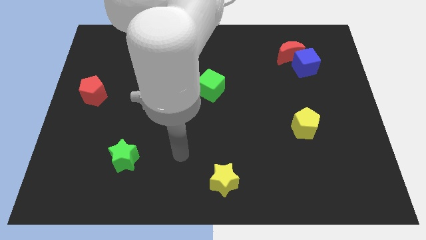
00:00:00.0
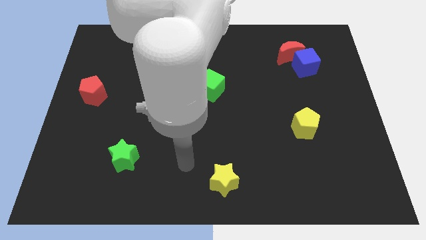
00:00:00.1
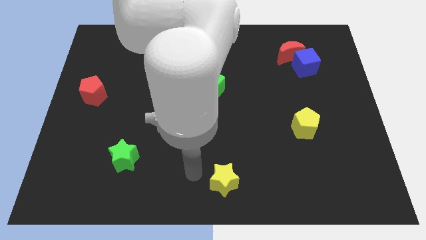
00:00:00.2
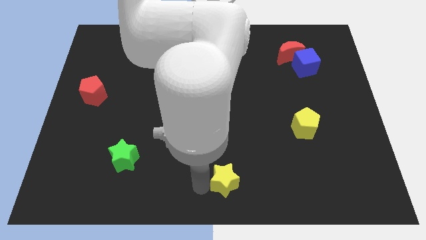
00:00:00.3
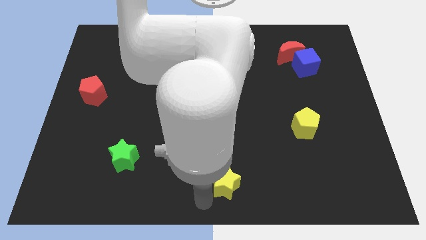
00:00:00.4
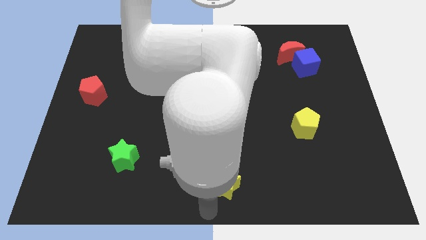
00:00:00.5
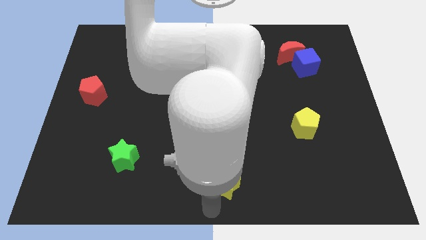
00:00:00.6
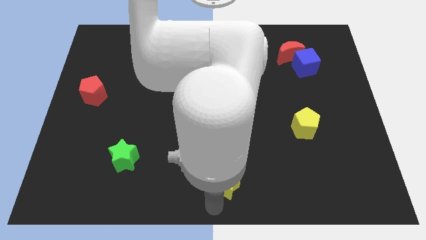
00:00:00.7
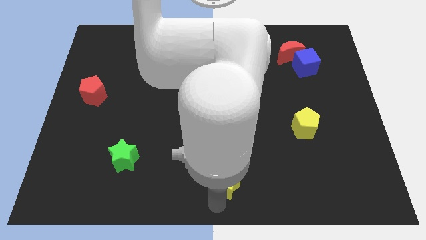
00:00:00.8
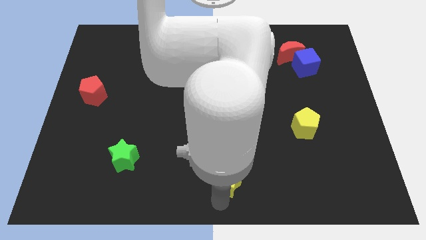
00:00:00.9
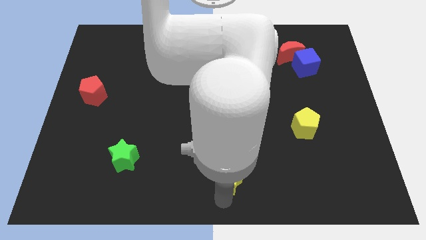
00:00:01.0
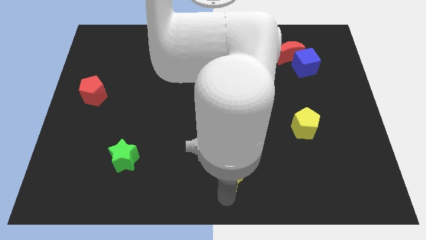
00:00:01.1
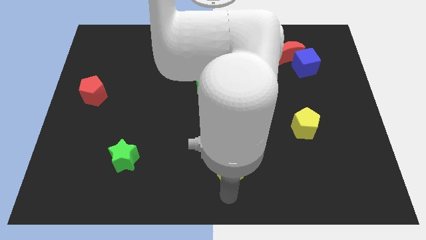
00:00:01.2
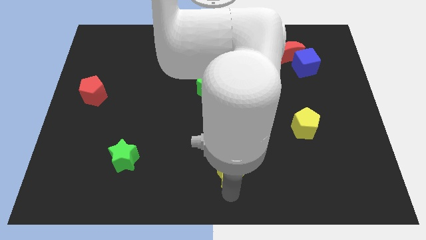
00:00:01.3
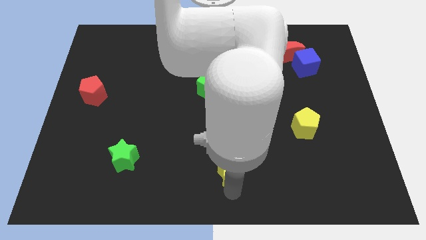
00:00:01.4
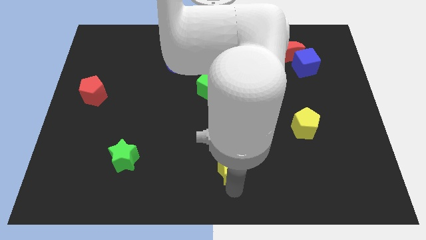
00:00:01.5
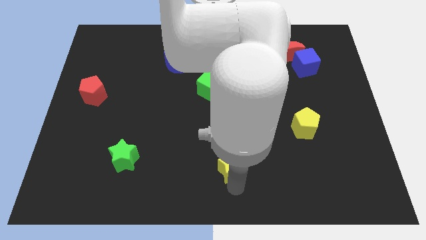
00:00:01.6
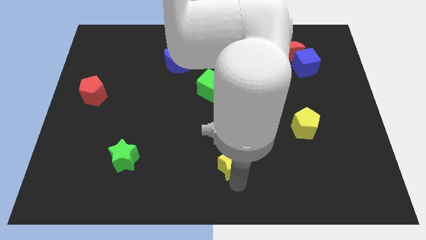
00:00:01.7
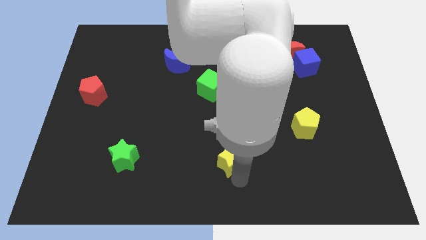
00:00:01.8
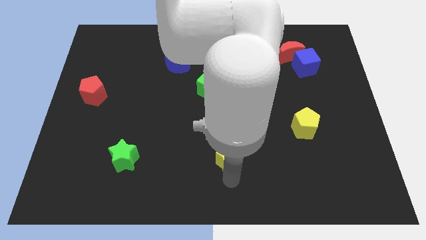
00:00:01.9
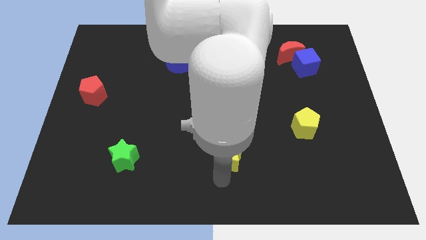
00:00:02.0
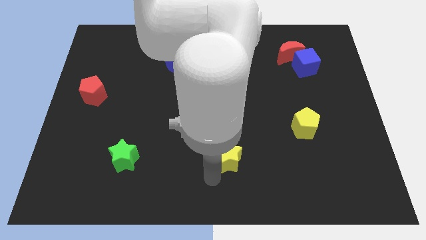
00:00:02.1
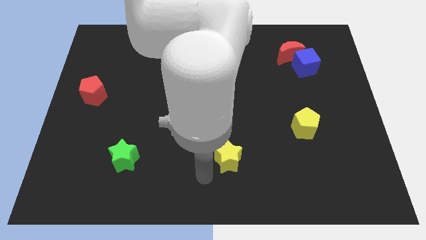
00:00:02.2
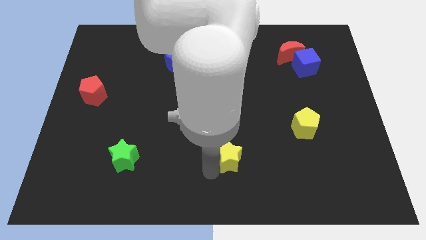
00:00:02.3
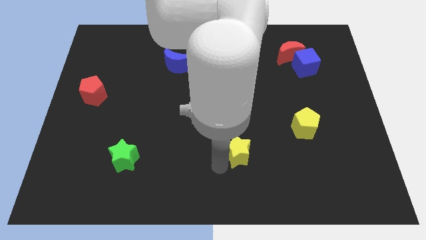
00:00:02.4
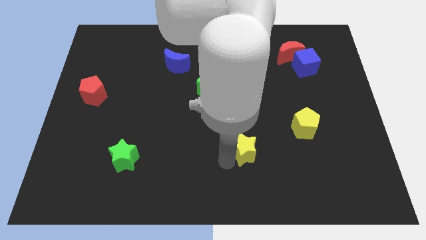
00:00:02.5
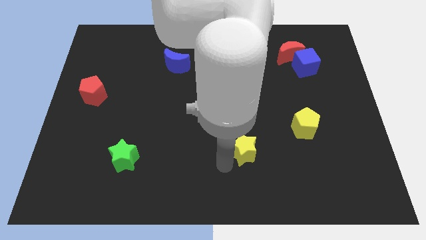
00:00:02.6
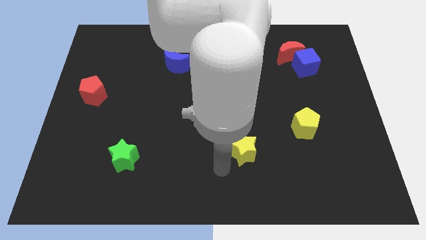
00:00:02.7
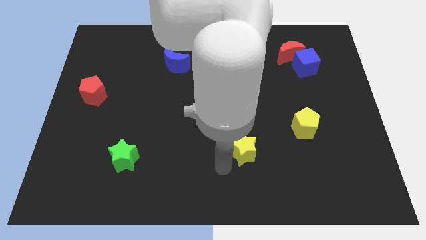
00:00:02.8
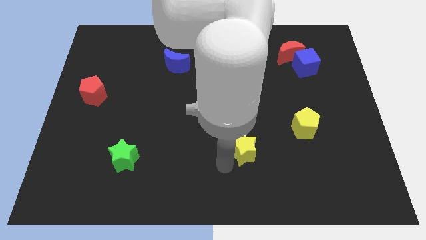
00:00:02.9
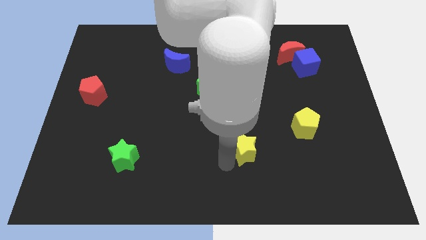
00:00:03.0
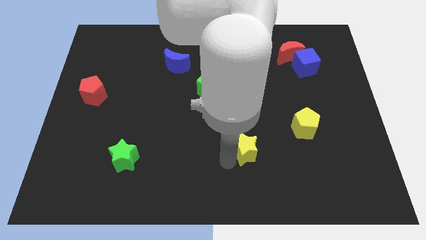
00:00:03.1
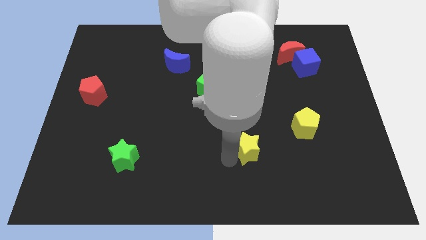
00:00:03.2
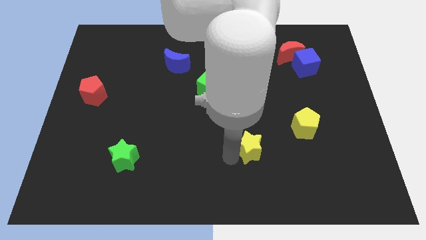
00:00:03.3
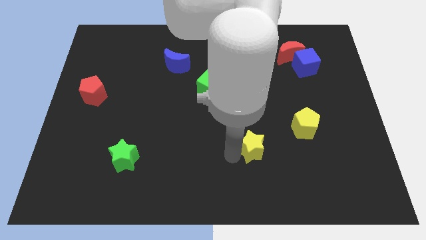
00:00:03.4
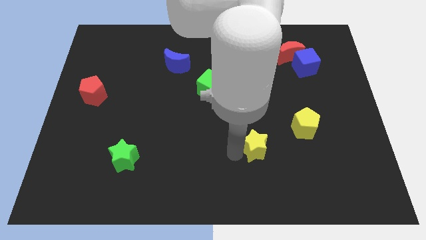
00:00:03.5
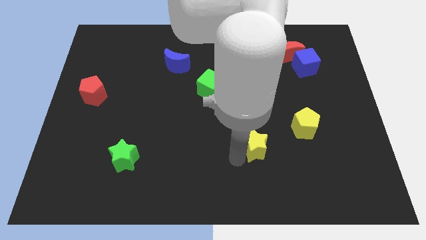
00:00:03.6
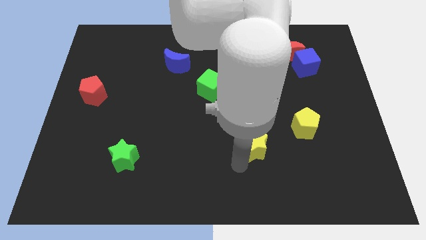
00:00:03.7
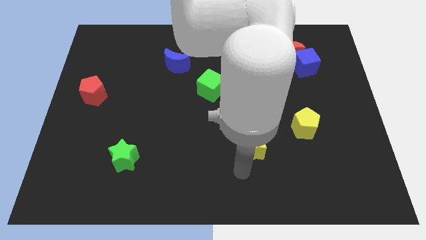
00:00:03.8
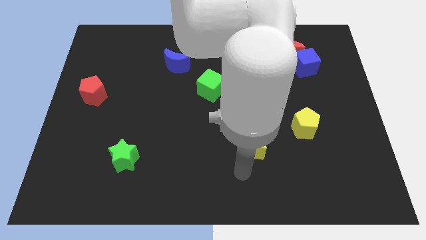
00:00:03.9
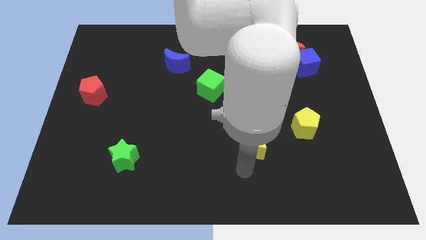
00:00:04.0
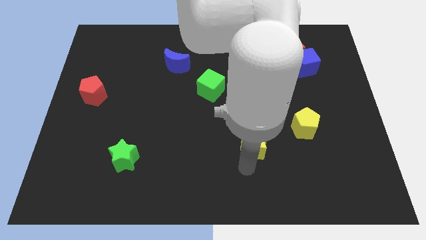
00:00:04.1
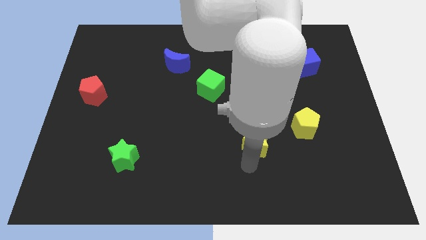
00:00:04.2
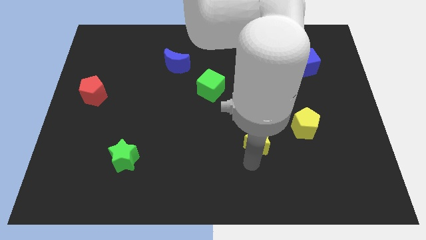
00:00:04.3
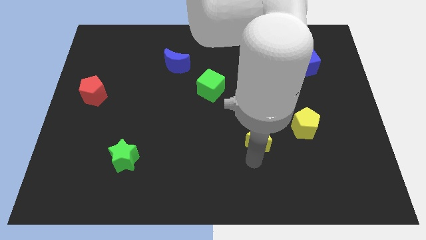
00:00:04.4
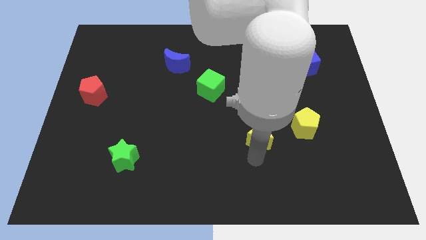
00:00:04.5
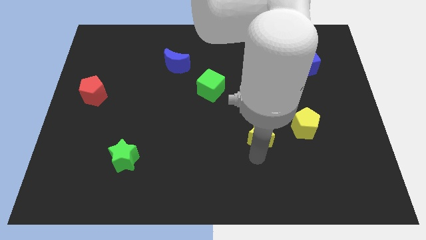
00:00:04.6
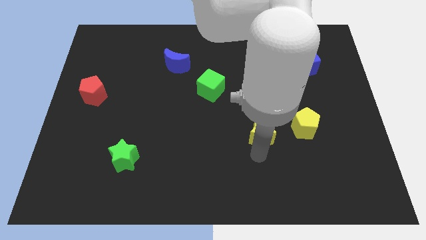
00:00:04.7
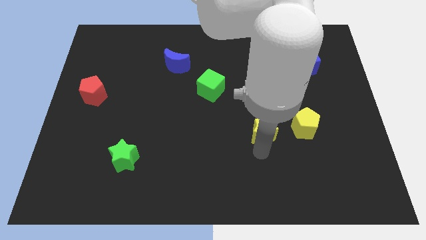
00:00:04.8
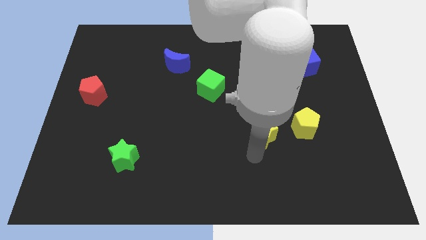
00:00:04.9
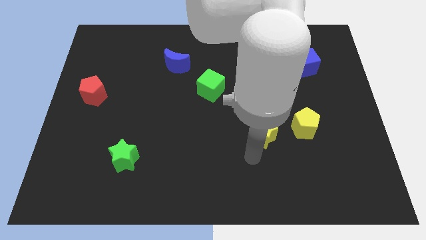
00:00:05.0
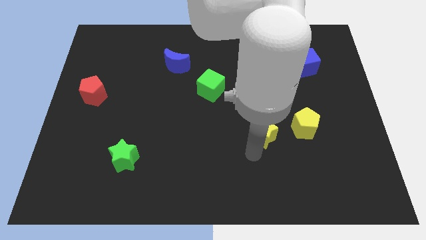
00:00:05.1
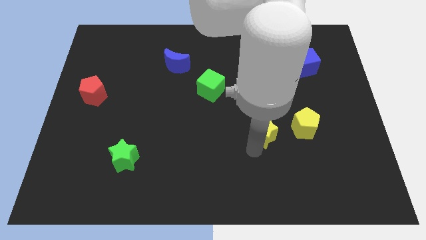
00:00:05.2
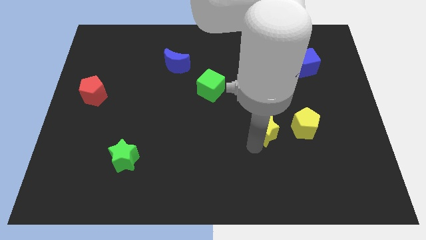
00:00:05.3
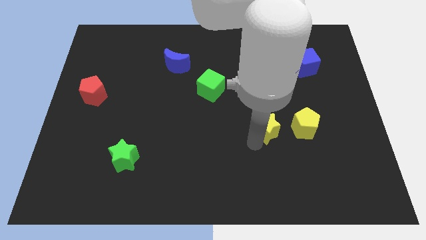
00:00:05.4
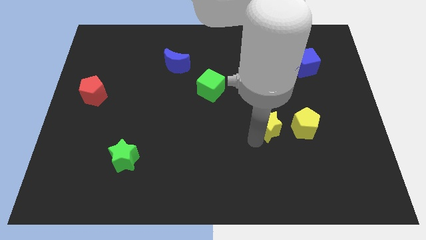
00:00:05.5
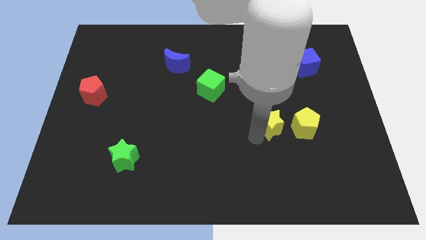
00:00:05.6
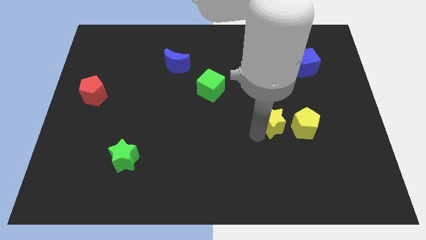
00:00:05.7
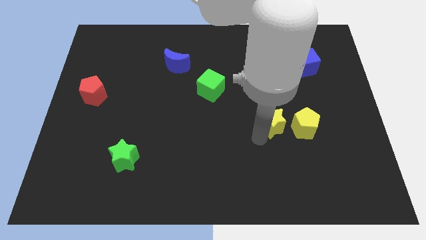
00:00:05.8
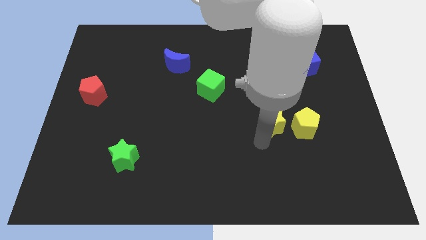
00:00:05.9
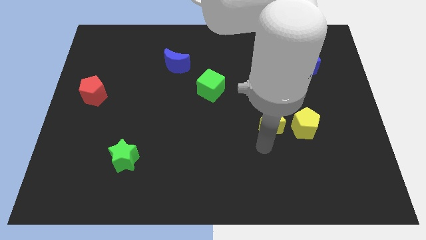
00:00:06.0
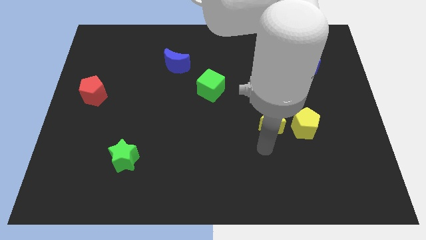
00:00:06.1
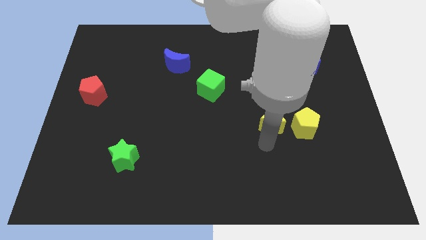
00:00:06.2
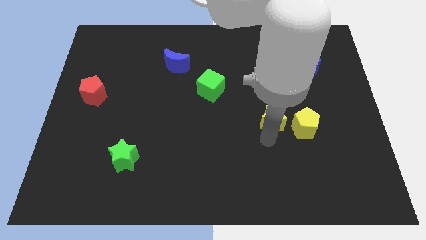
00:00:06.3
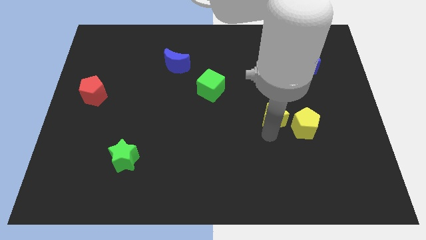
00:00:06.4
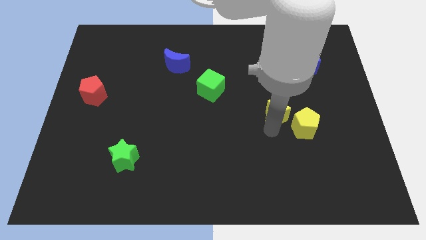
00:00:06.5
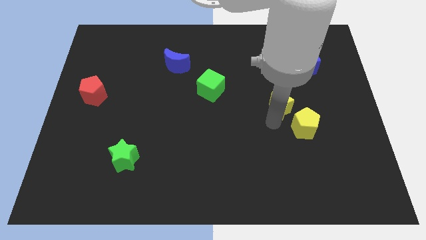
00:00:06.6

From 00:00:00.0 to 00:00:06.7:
put the yellow star above the yellow pentagon

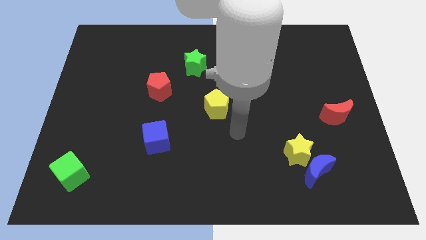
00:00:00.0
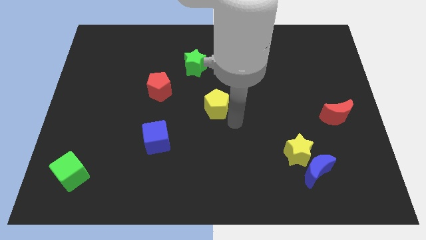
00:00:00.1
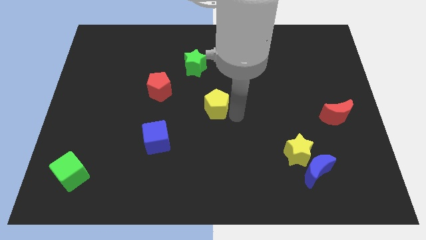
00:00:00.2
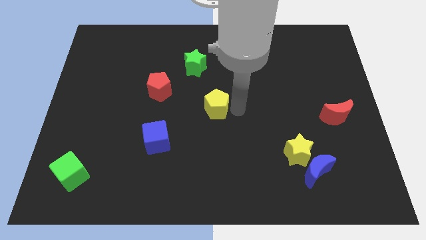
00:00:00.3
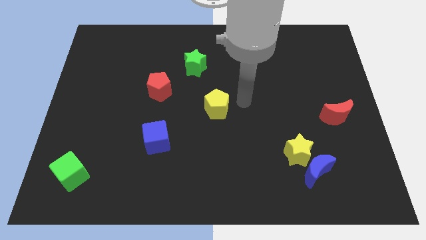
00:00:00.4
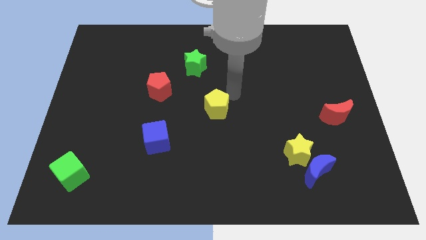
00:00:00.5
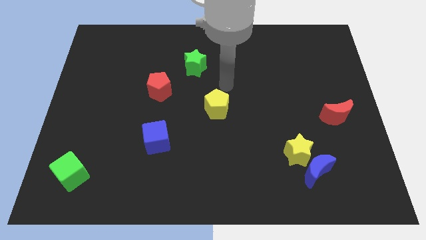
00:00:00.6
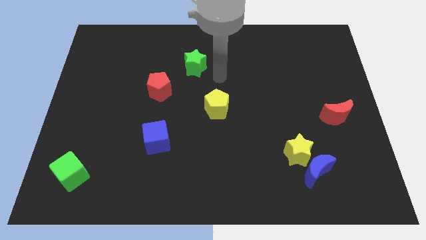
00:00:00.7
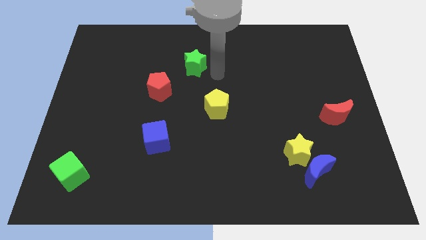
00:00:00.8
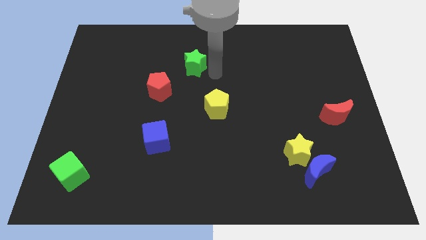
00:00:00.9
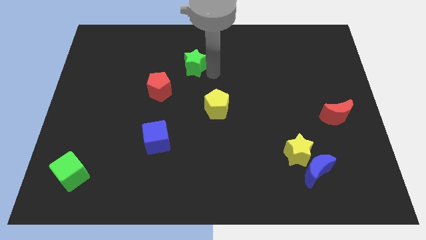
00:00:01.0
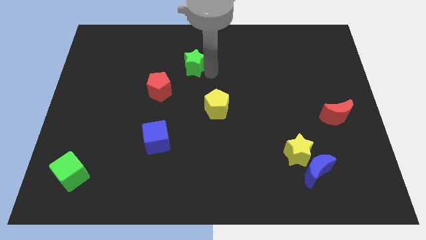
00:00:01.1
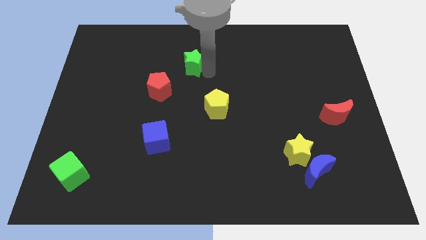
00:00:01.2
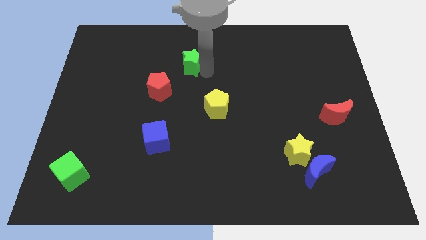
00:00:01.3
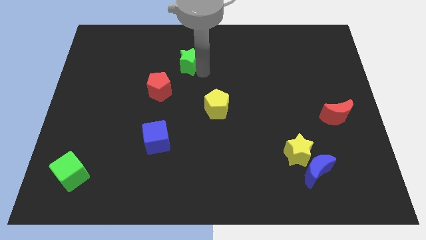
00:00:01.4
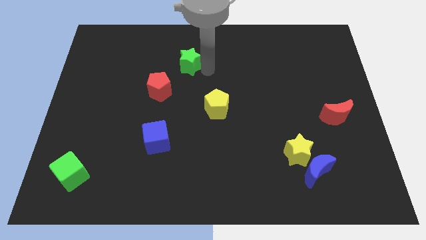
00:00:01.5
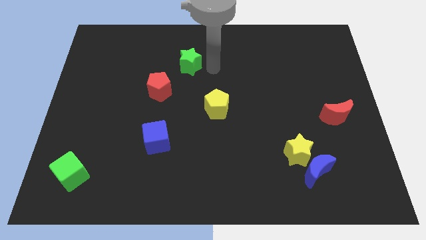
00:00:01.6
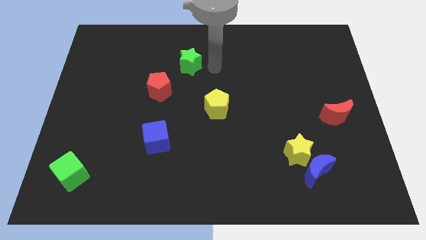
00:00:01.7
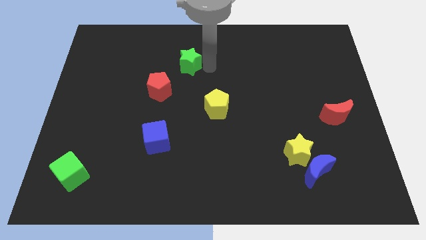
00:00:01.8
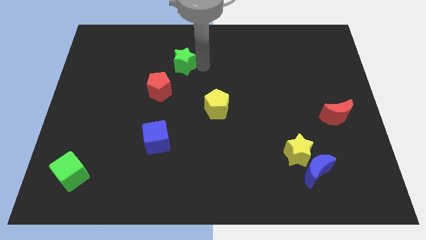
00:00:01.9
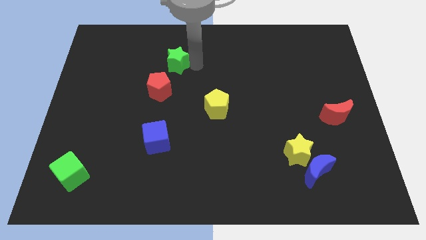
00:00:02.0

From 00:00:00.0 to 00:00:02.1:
push the green star to the top side of the red pentagon
